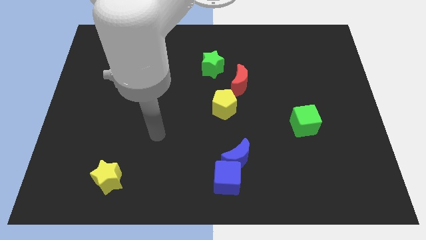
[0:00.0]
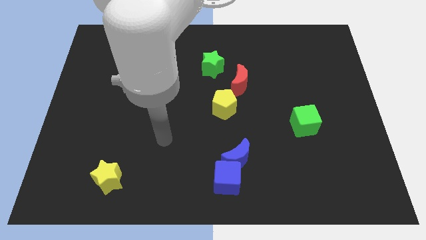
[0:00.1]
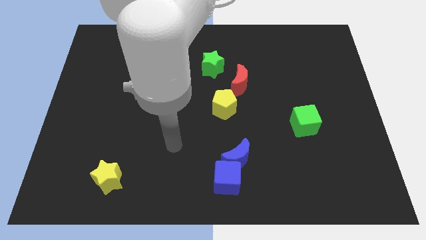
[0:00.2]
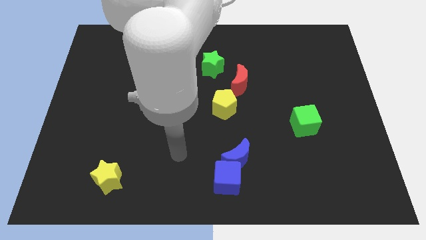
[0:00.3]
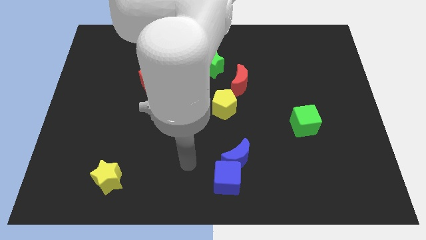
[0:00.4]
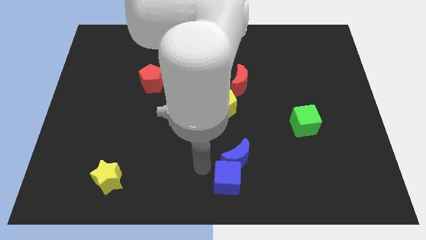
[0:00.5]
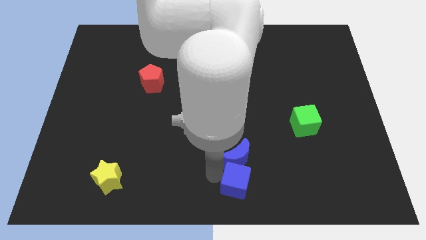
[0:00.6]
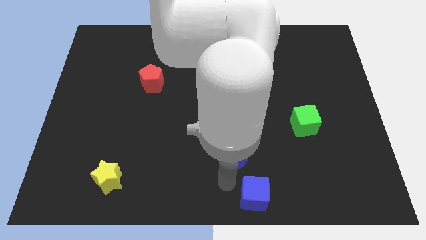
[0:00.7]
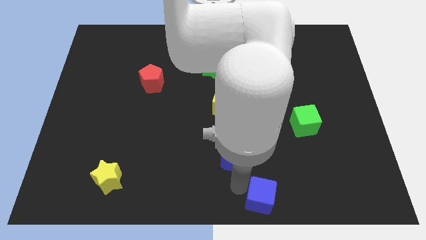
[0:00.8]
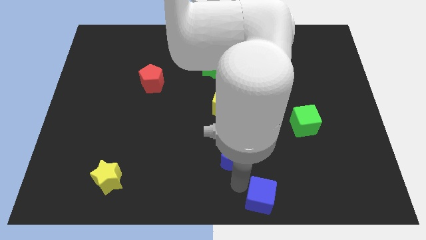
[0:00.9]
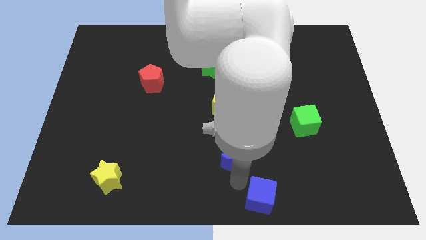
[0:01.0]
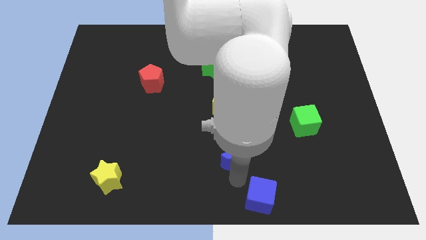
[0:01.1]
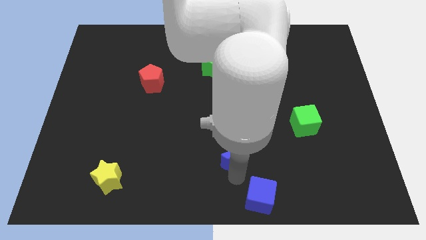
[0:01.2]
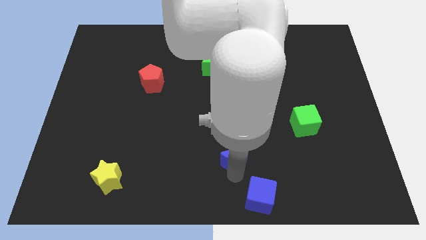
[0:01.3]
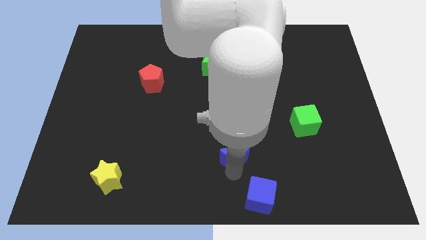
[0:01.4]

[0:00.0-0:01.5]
pull the blue moon apart from the blue cube

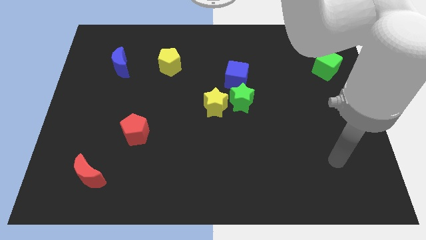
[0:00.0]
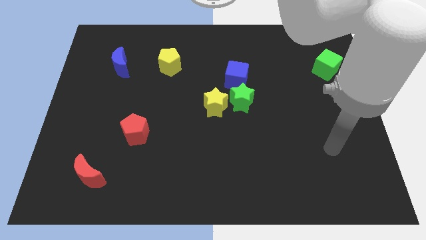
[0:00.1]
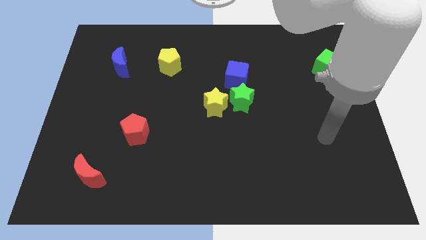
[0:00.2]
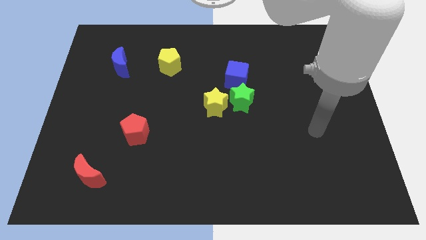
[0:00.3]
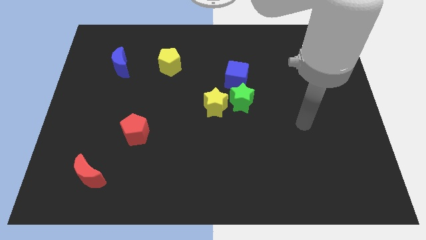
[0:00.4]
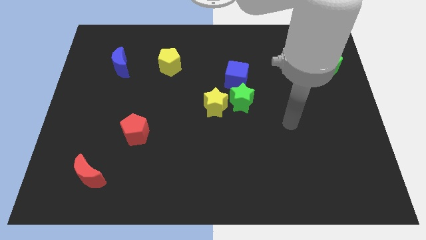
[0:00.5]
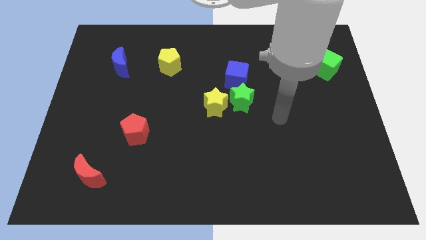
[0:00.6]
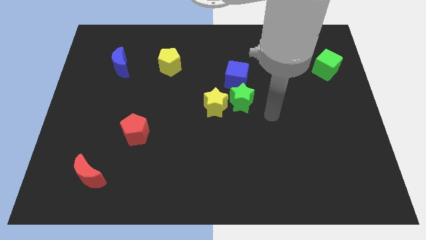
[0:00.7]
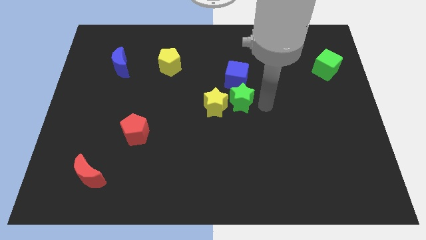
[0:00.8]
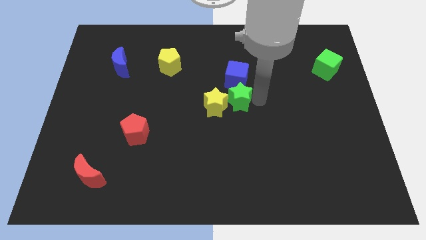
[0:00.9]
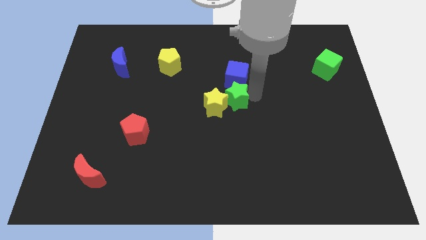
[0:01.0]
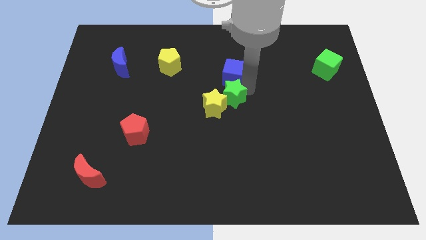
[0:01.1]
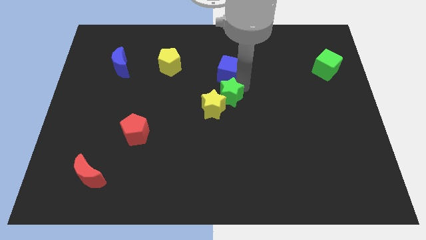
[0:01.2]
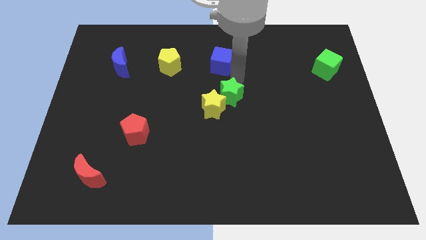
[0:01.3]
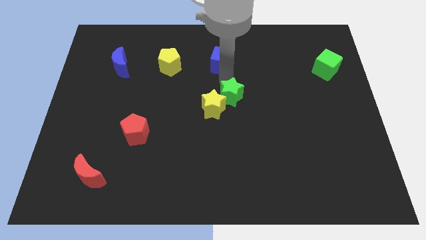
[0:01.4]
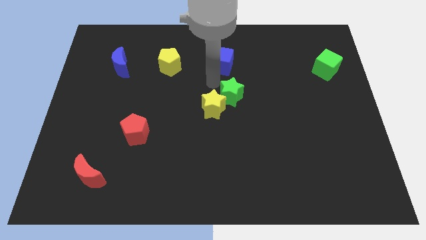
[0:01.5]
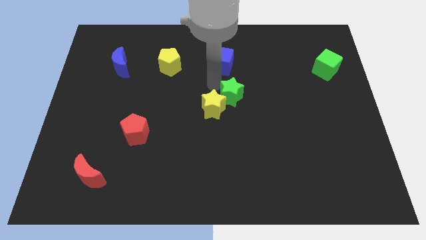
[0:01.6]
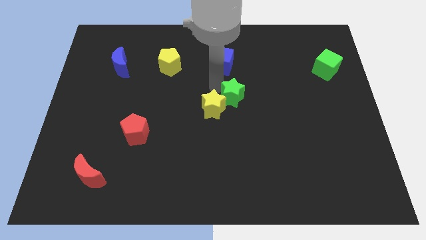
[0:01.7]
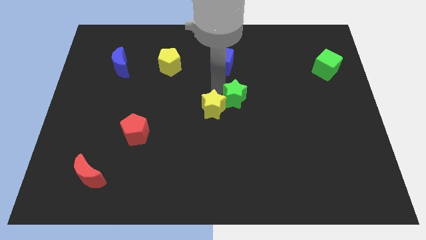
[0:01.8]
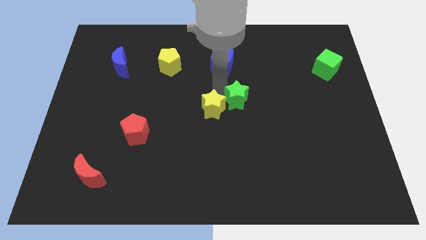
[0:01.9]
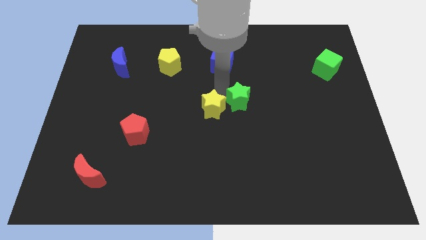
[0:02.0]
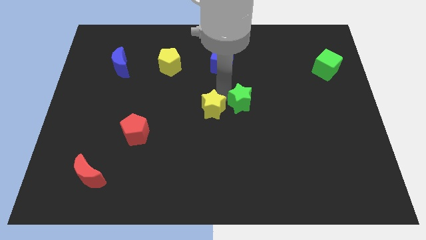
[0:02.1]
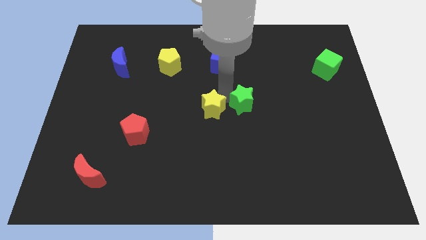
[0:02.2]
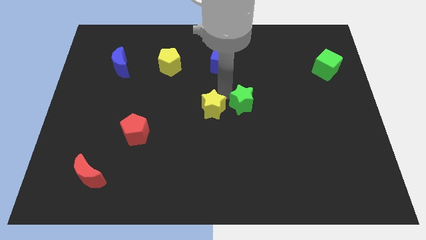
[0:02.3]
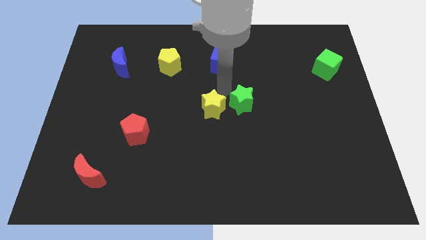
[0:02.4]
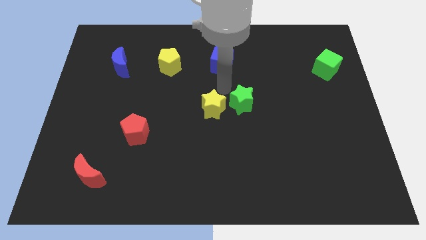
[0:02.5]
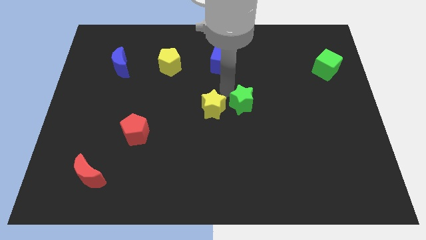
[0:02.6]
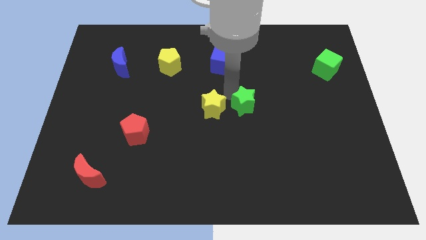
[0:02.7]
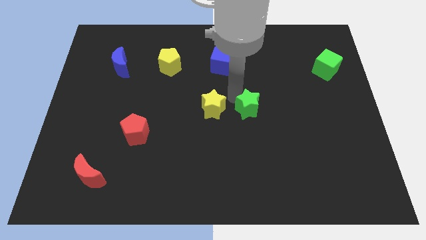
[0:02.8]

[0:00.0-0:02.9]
pull the green star apart from the yellow star and blue cube

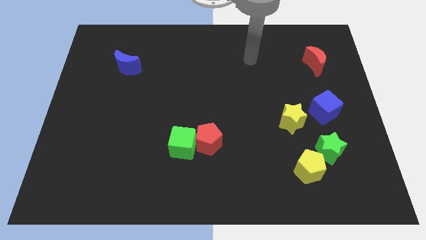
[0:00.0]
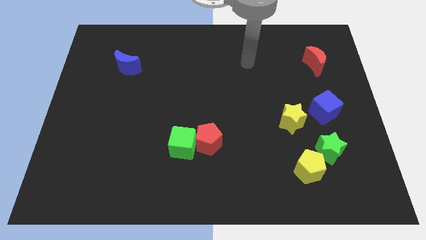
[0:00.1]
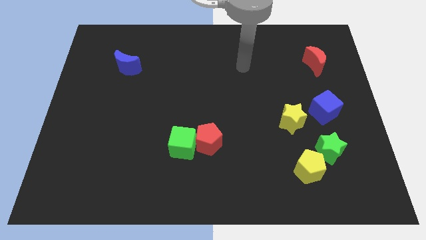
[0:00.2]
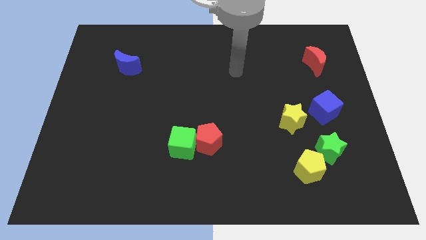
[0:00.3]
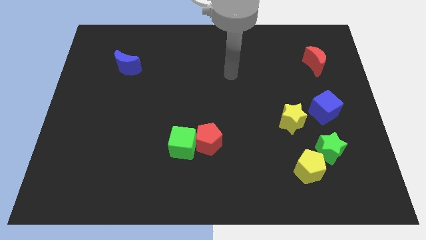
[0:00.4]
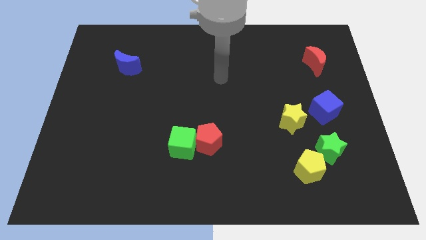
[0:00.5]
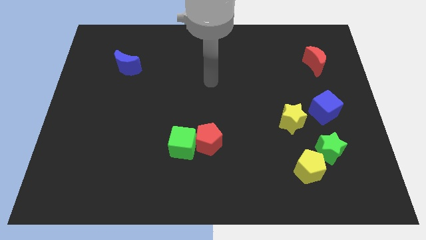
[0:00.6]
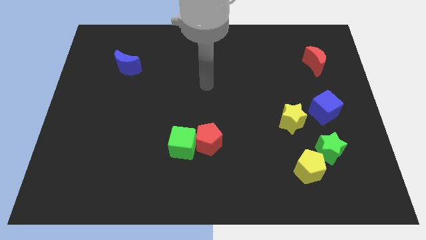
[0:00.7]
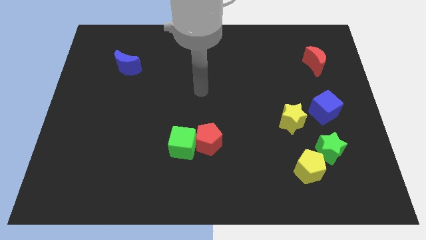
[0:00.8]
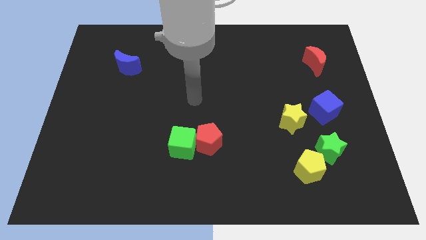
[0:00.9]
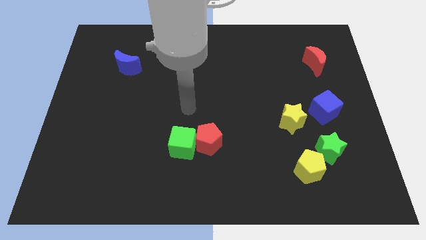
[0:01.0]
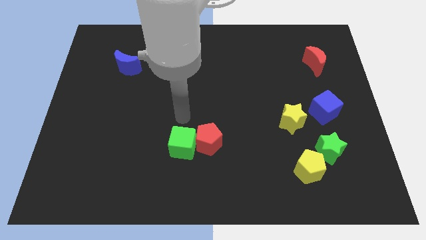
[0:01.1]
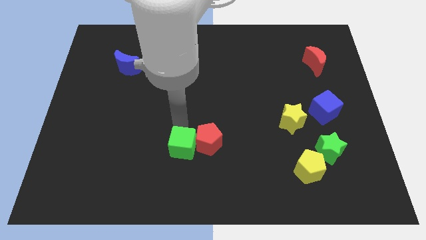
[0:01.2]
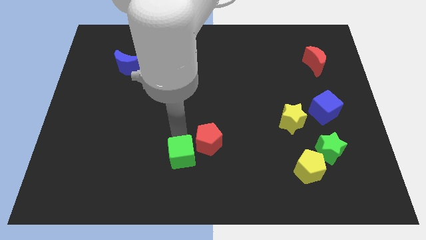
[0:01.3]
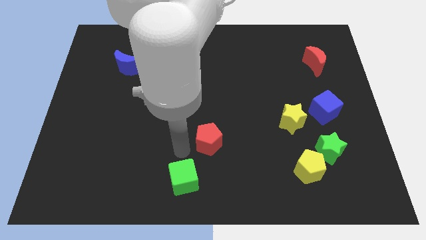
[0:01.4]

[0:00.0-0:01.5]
pull the red pentagon apart from the green cube

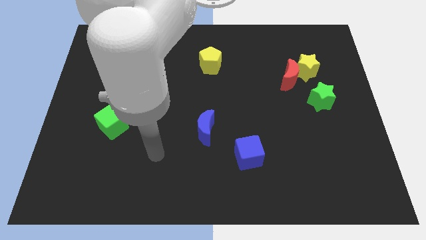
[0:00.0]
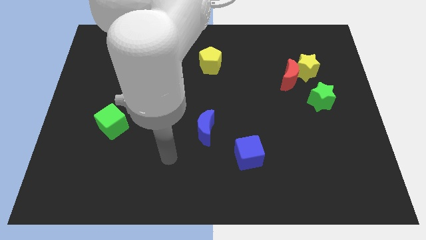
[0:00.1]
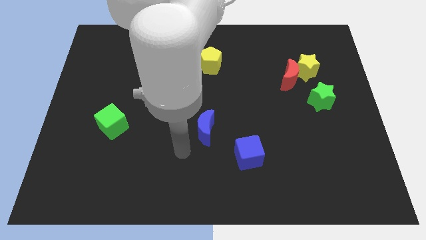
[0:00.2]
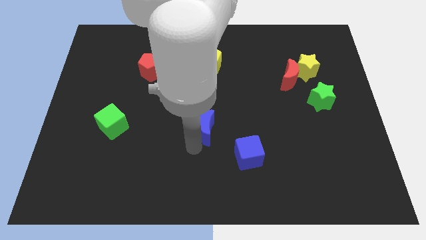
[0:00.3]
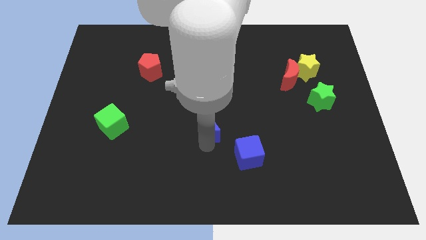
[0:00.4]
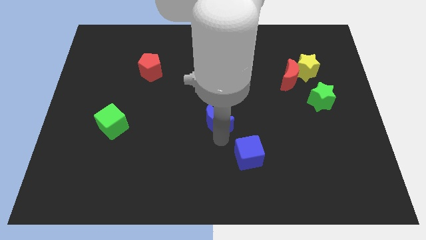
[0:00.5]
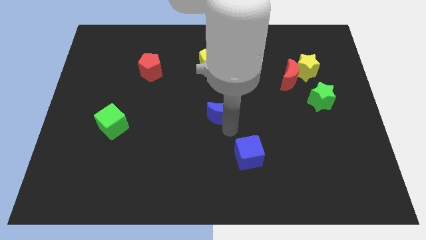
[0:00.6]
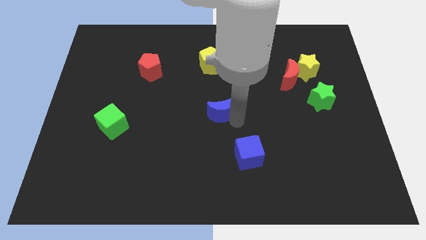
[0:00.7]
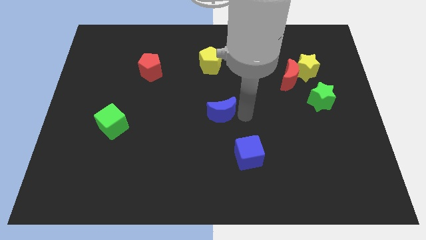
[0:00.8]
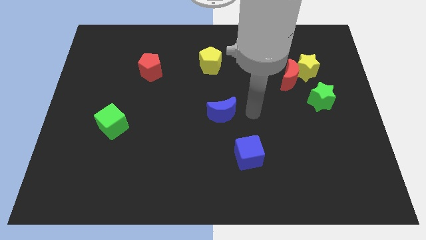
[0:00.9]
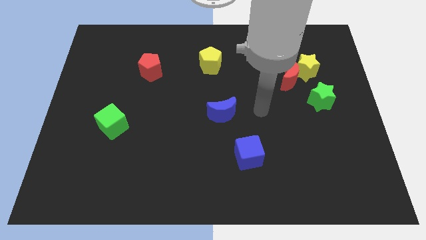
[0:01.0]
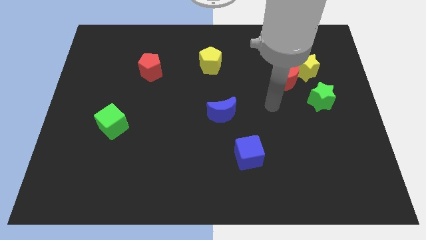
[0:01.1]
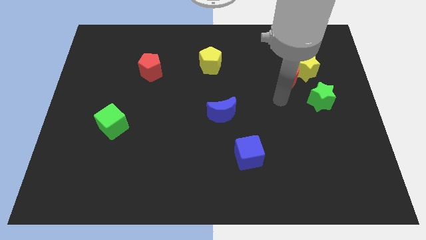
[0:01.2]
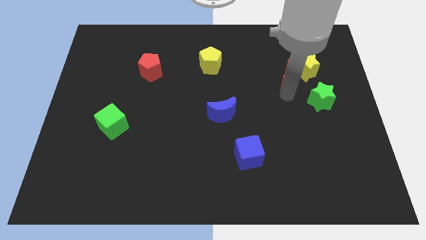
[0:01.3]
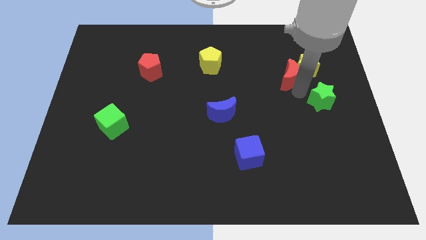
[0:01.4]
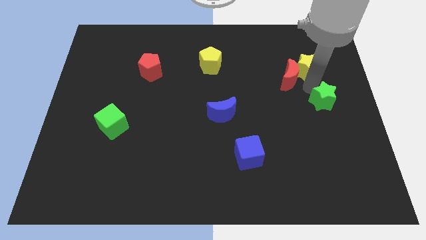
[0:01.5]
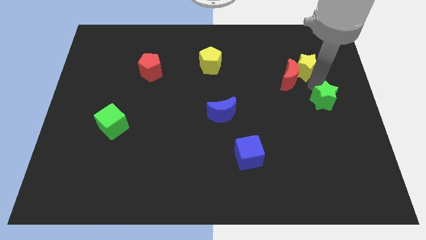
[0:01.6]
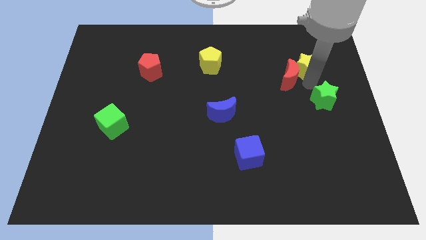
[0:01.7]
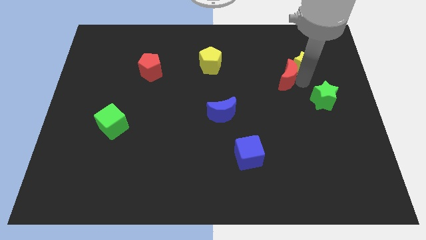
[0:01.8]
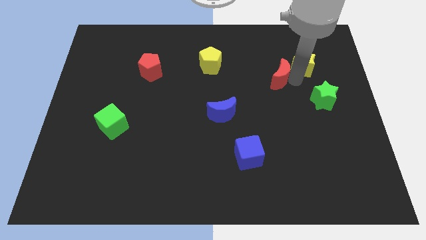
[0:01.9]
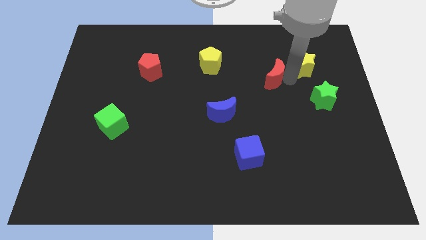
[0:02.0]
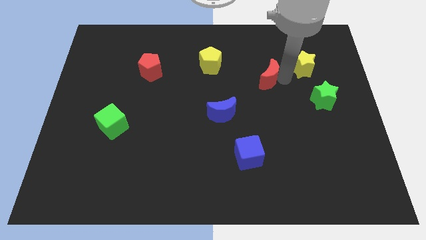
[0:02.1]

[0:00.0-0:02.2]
separate the red moon from the yellow star and green star

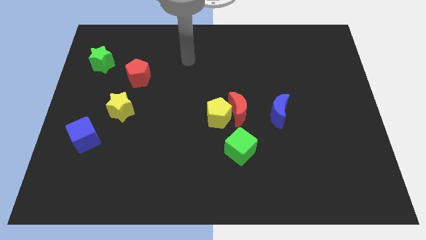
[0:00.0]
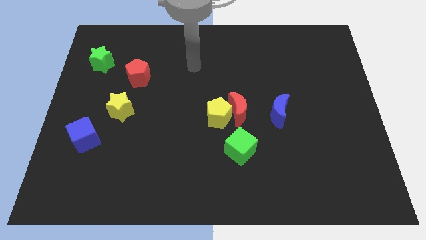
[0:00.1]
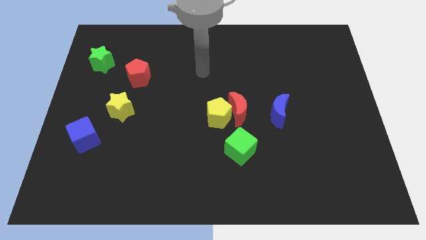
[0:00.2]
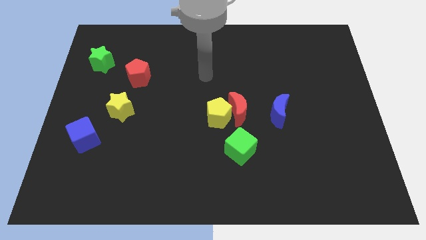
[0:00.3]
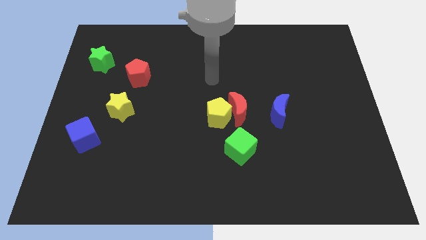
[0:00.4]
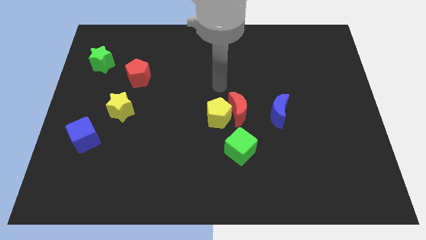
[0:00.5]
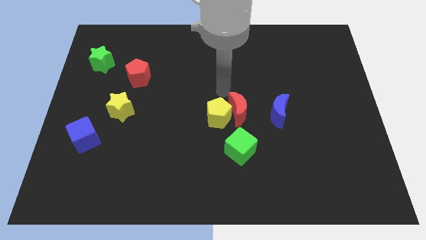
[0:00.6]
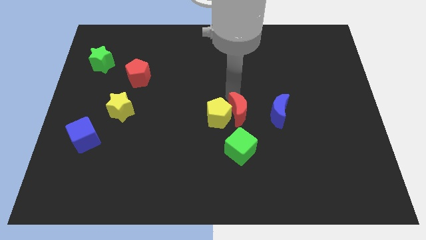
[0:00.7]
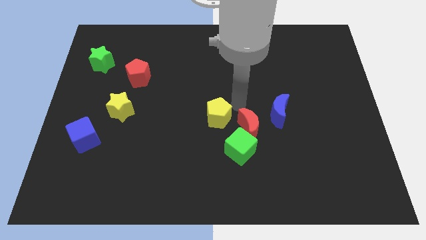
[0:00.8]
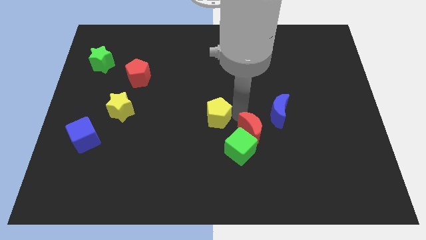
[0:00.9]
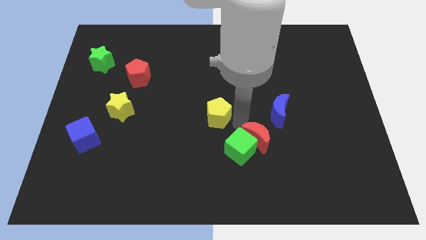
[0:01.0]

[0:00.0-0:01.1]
pull the yellow pentagon apart from the red moon and green cube
